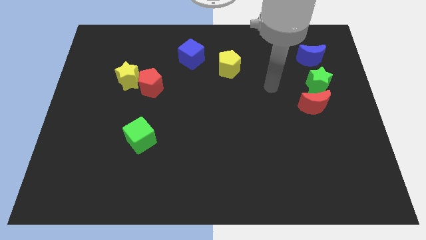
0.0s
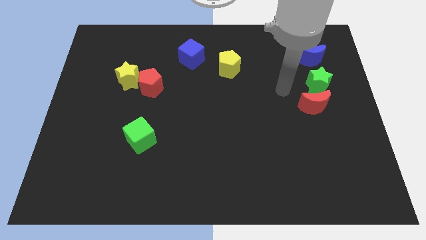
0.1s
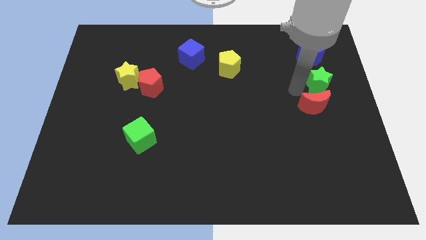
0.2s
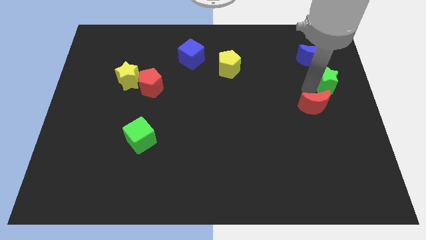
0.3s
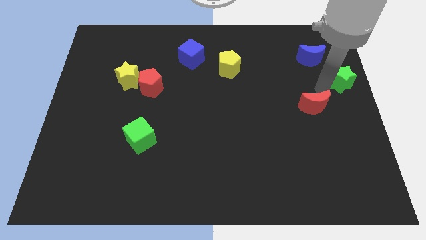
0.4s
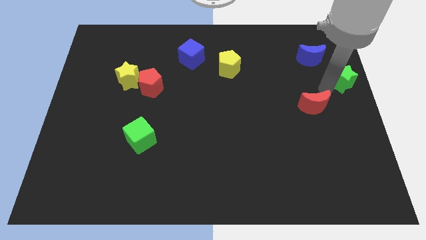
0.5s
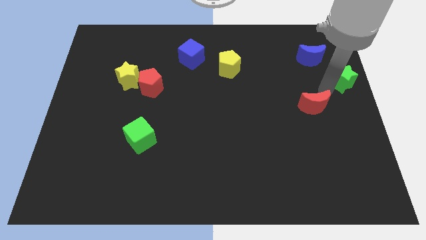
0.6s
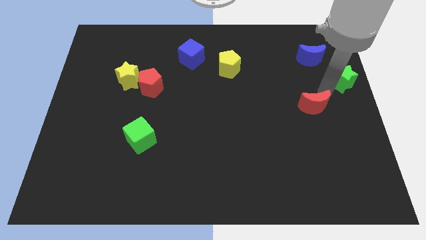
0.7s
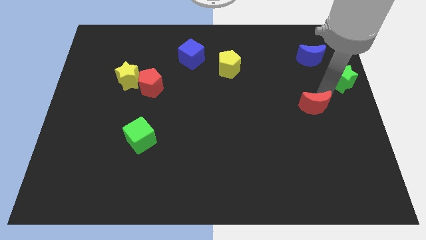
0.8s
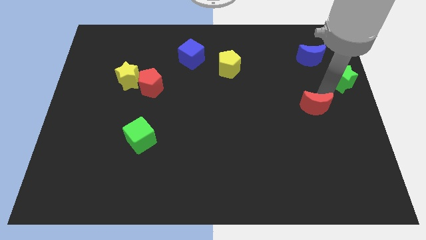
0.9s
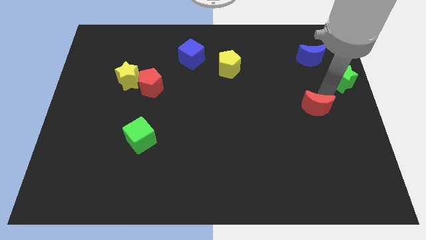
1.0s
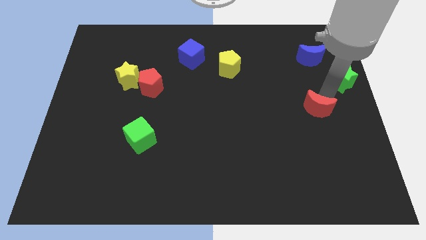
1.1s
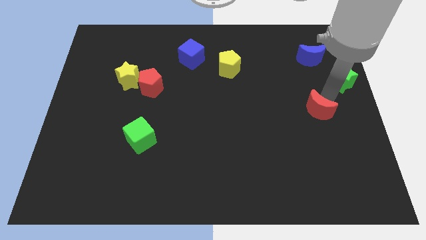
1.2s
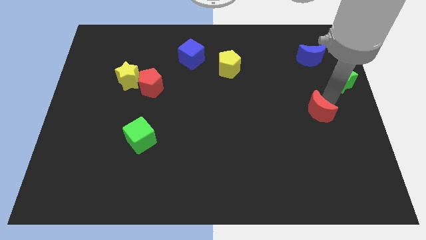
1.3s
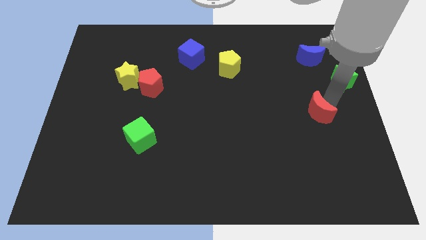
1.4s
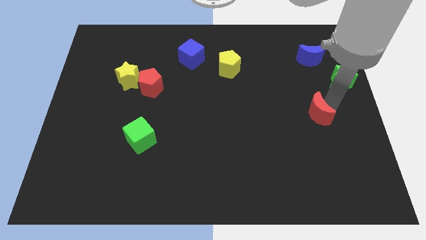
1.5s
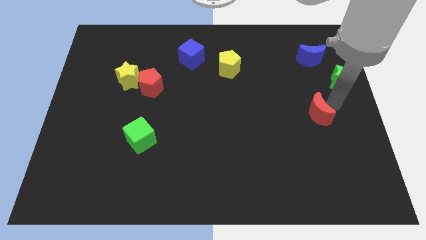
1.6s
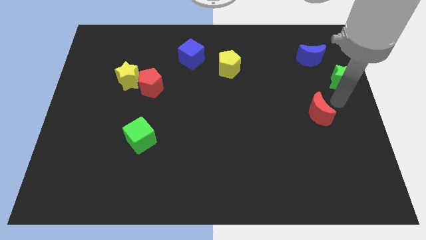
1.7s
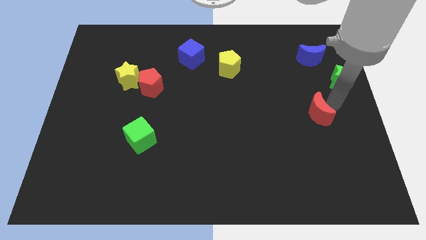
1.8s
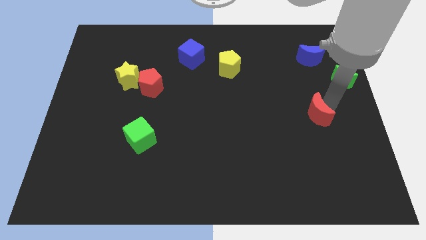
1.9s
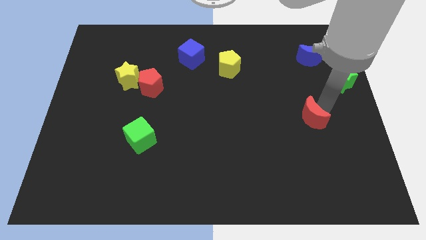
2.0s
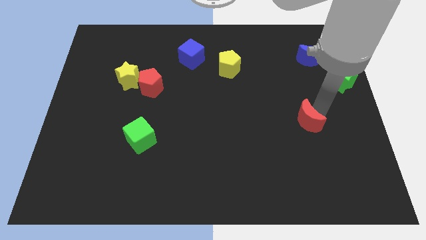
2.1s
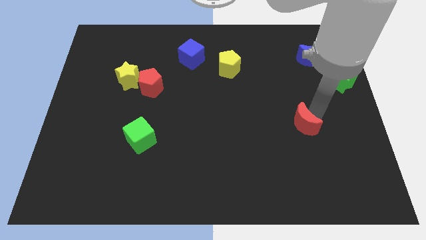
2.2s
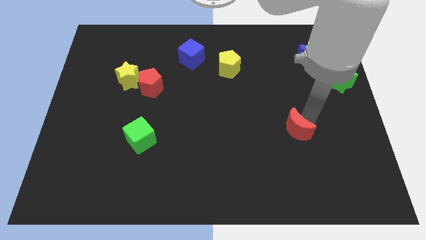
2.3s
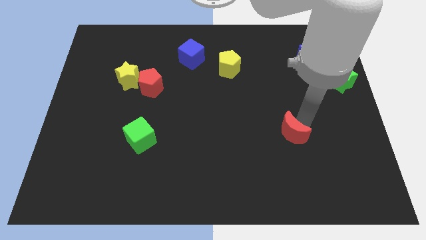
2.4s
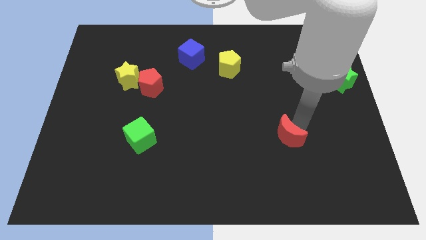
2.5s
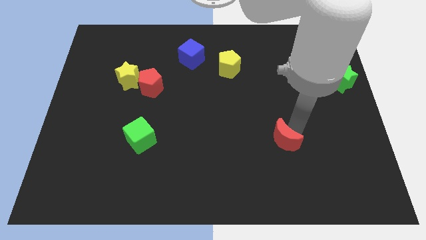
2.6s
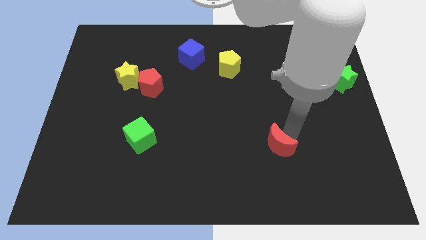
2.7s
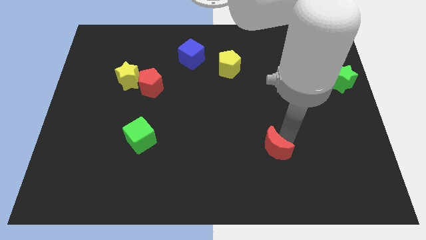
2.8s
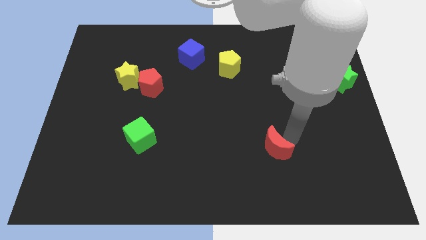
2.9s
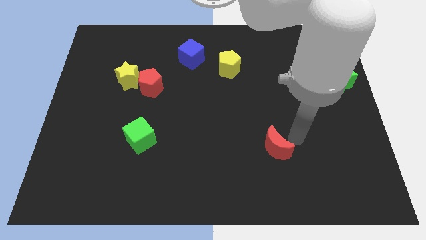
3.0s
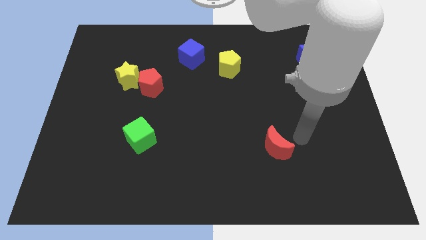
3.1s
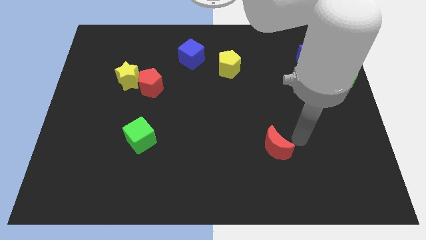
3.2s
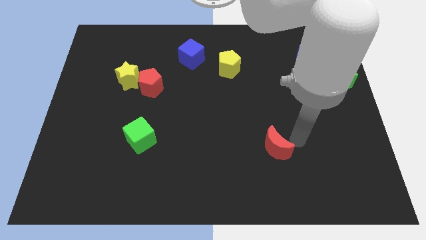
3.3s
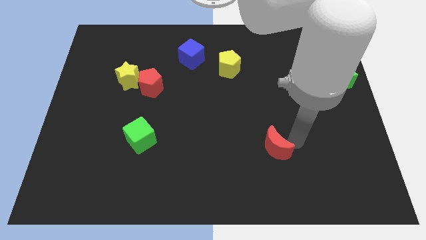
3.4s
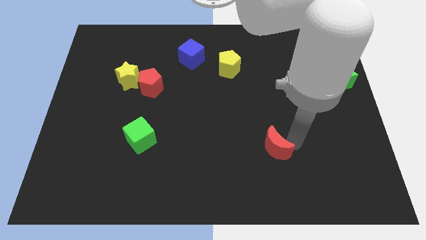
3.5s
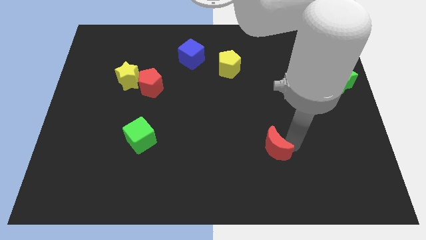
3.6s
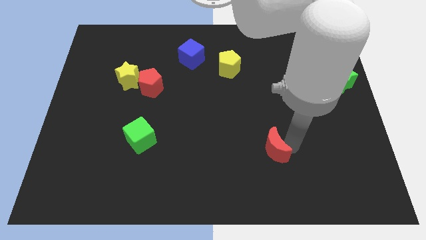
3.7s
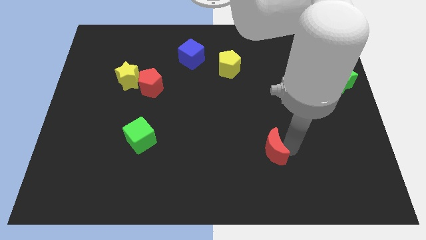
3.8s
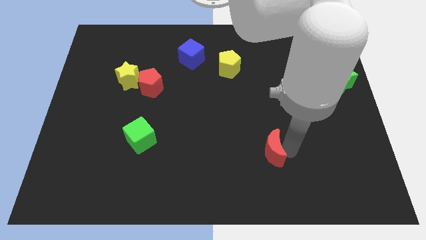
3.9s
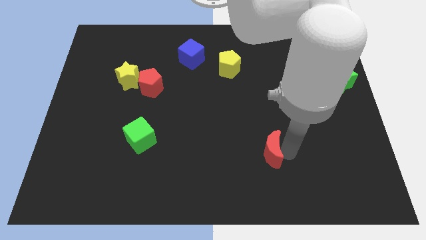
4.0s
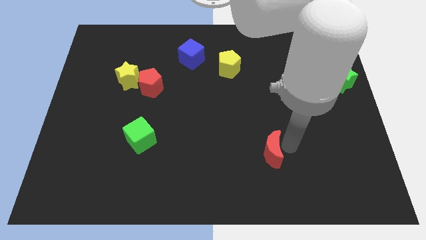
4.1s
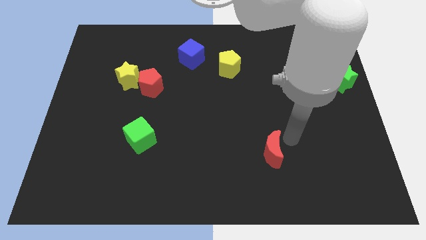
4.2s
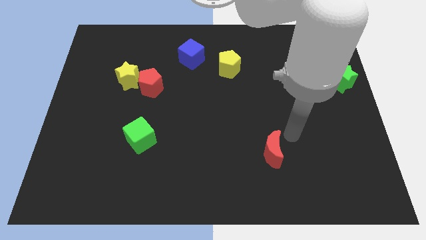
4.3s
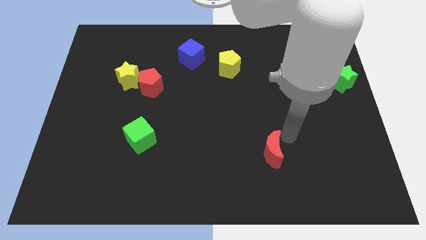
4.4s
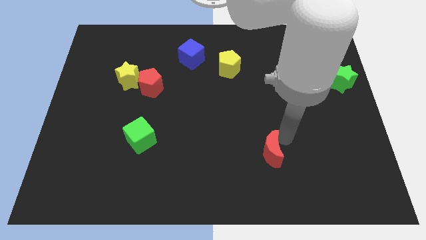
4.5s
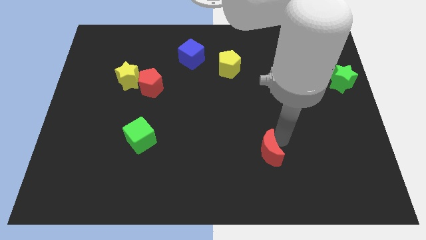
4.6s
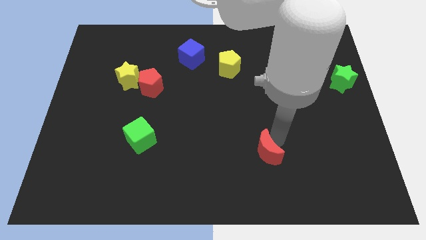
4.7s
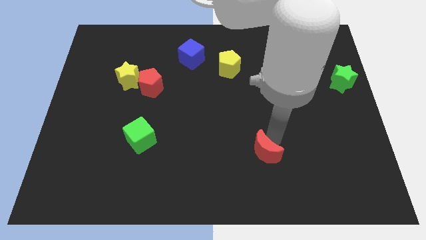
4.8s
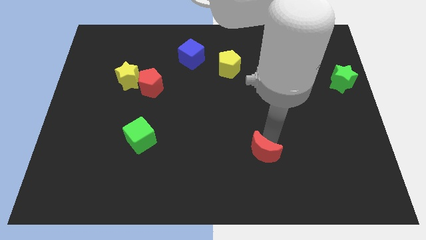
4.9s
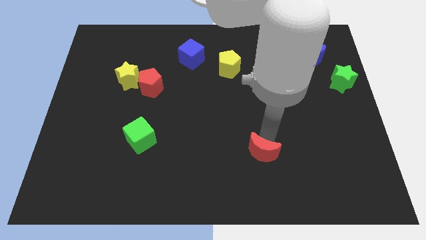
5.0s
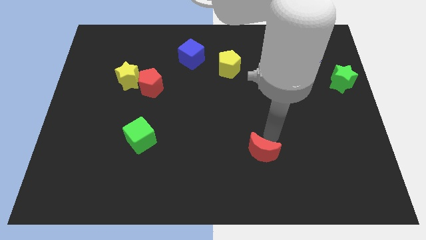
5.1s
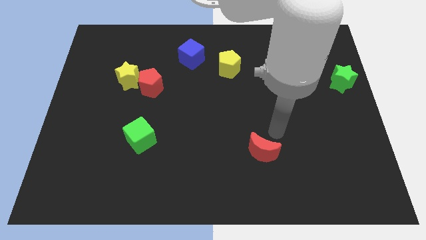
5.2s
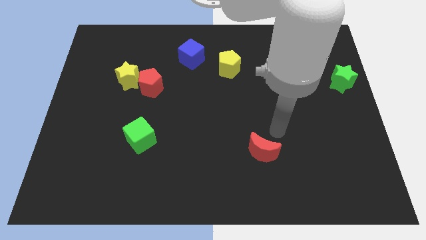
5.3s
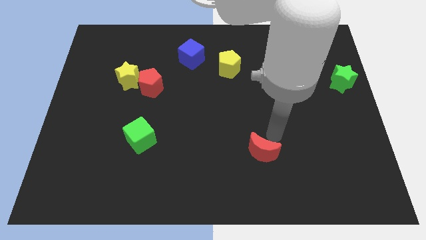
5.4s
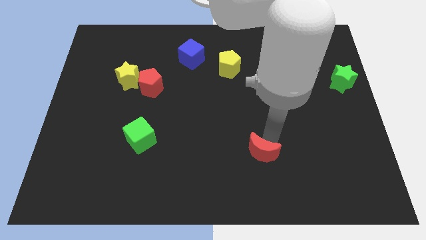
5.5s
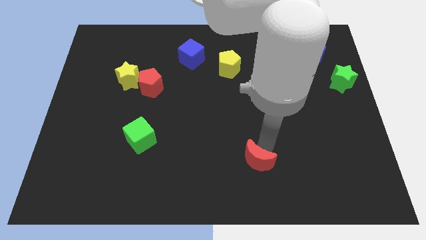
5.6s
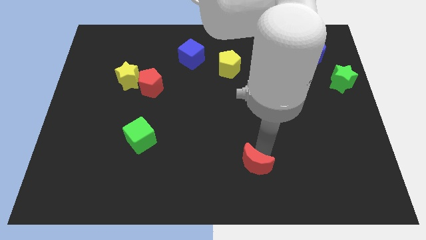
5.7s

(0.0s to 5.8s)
push the red moon to the bottom
